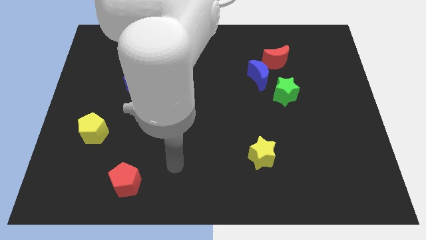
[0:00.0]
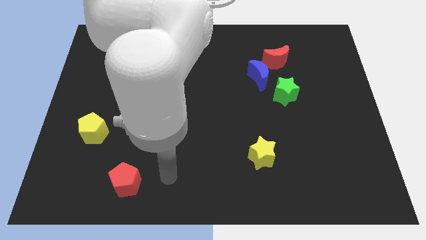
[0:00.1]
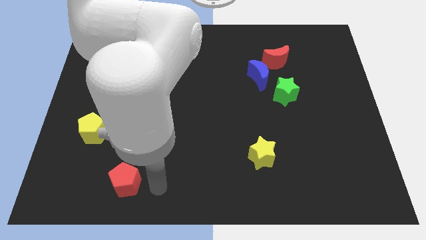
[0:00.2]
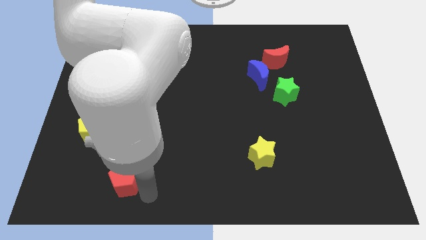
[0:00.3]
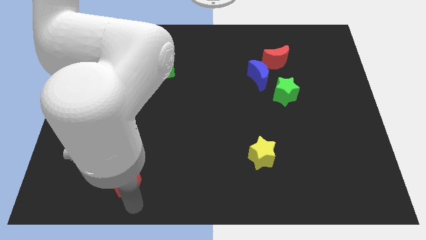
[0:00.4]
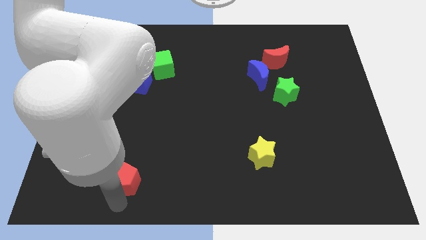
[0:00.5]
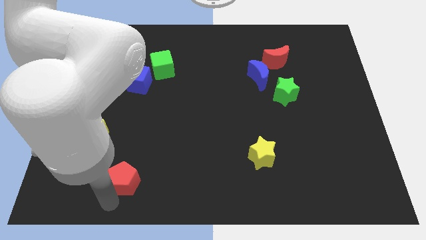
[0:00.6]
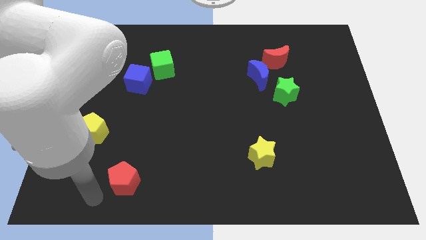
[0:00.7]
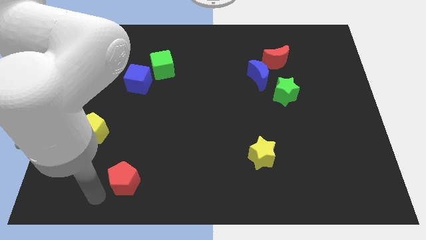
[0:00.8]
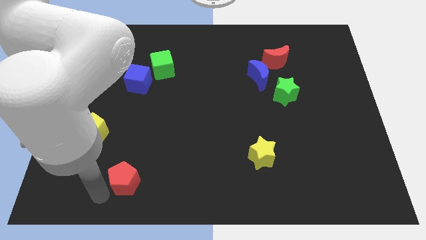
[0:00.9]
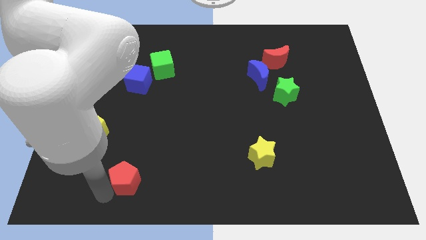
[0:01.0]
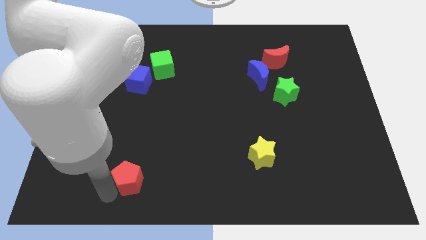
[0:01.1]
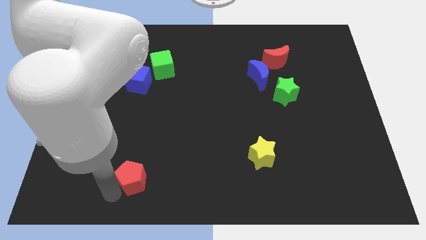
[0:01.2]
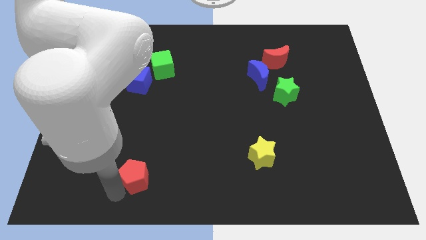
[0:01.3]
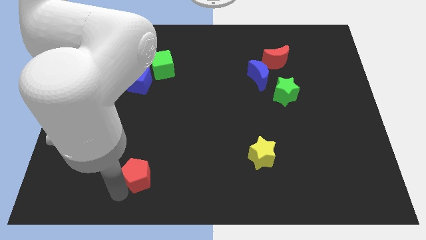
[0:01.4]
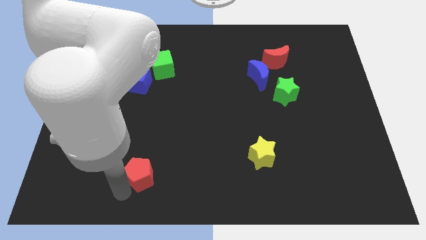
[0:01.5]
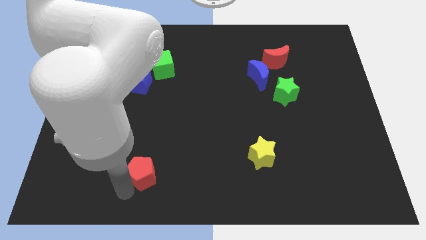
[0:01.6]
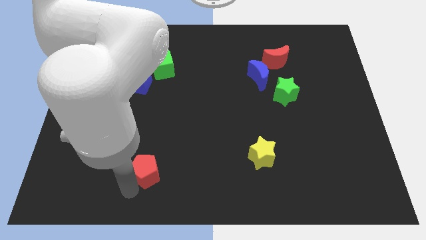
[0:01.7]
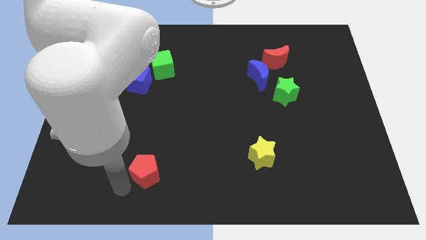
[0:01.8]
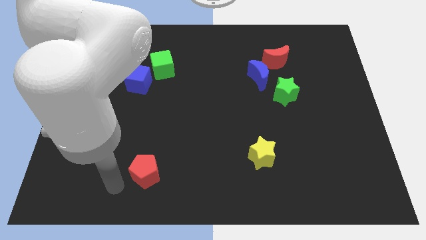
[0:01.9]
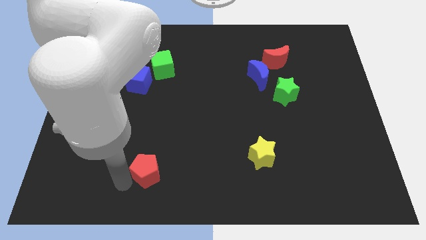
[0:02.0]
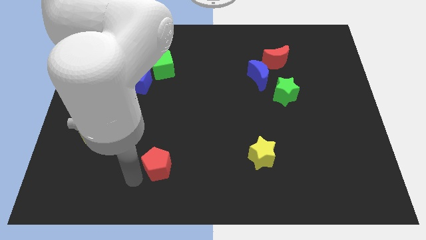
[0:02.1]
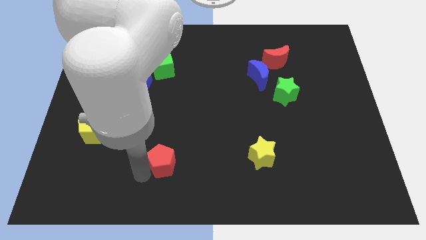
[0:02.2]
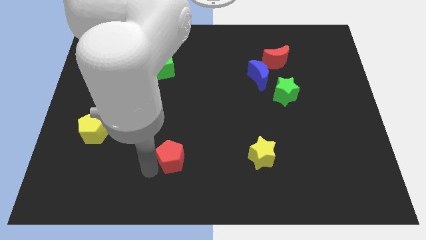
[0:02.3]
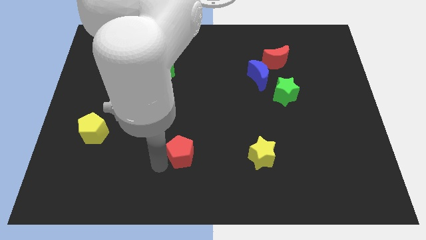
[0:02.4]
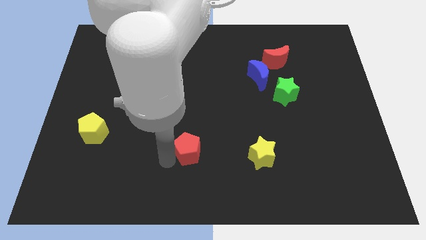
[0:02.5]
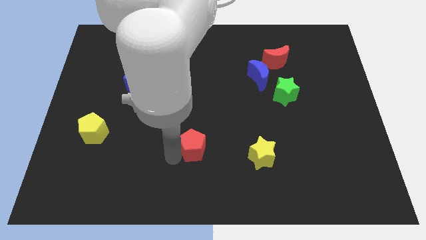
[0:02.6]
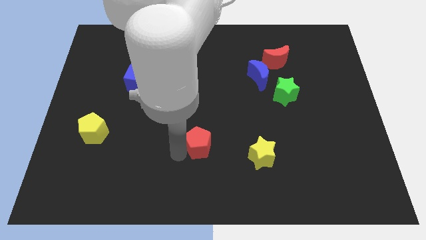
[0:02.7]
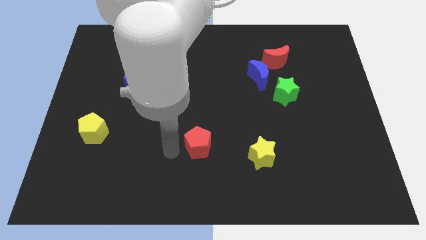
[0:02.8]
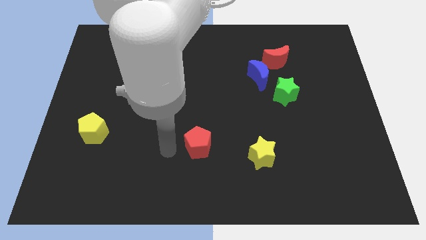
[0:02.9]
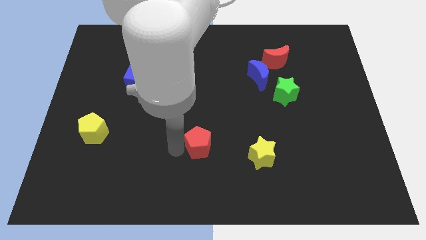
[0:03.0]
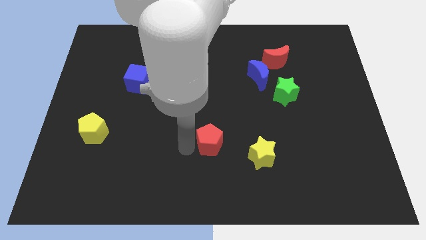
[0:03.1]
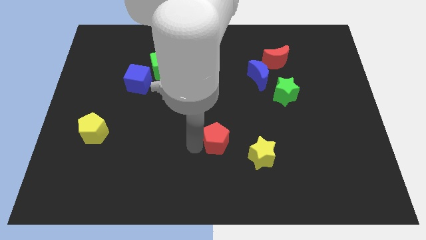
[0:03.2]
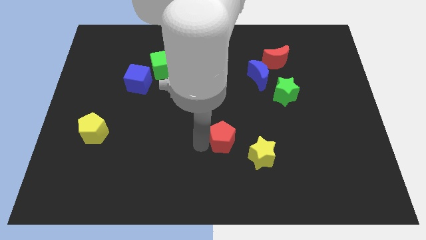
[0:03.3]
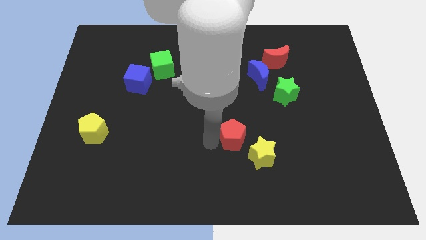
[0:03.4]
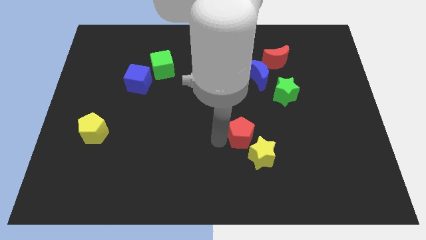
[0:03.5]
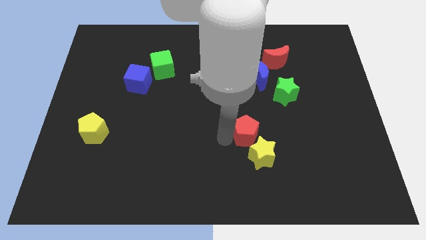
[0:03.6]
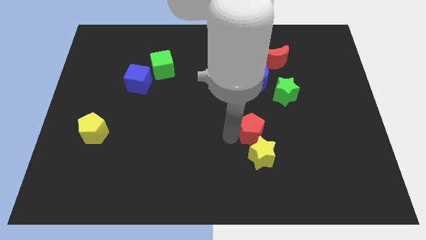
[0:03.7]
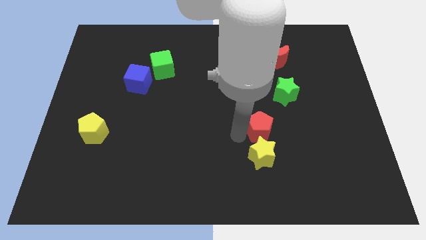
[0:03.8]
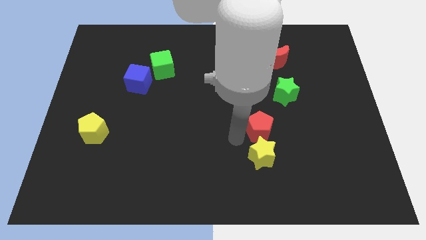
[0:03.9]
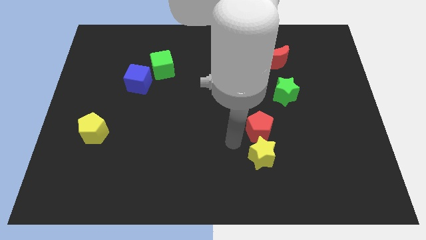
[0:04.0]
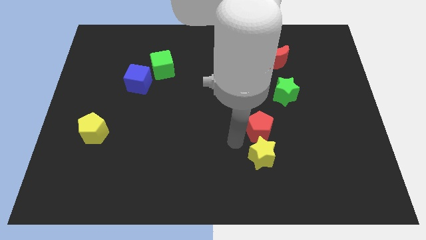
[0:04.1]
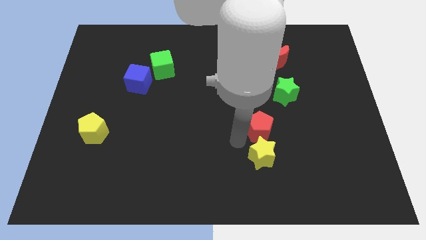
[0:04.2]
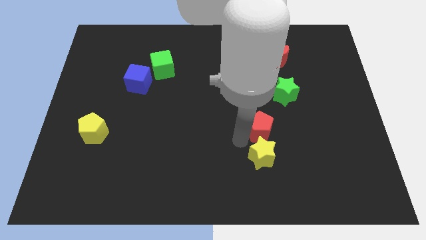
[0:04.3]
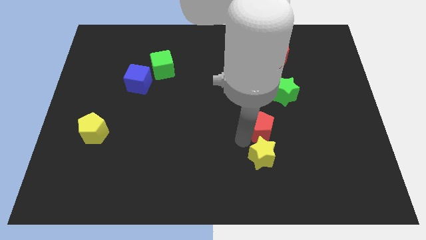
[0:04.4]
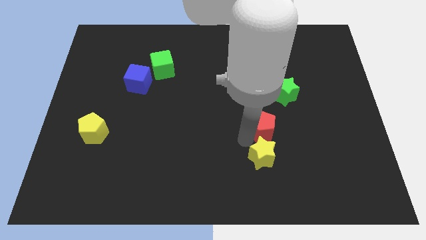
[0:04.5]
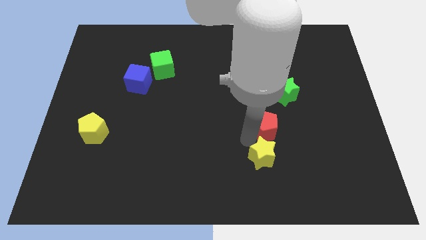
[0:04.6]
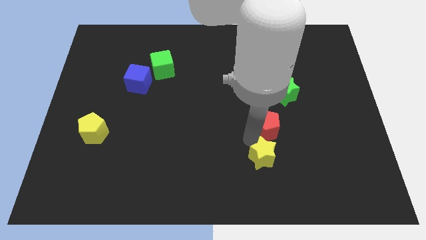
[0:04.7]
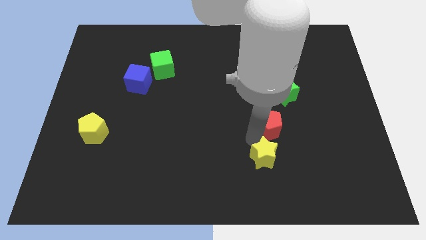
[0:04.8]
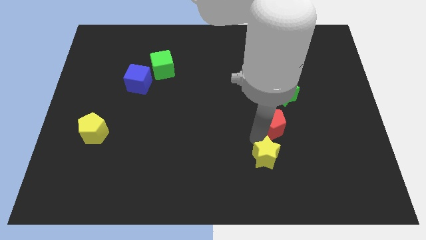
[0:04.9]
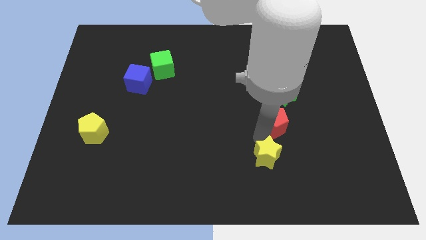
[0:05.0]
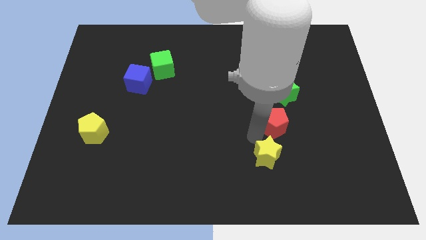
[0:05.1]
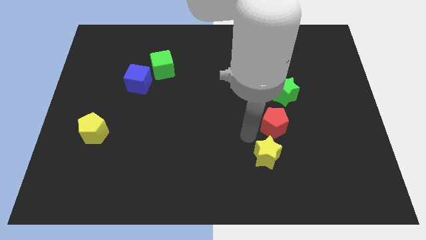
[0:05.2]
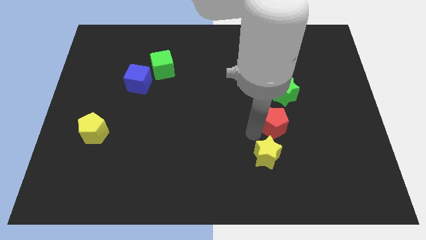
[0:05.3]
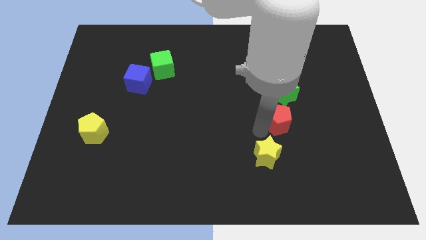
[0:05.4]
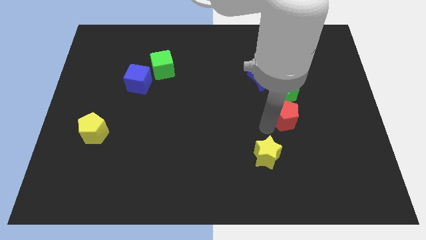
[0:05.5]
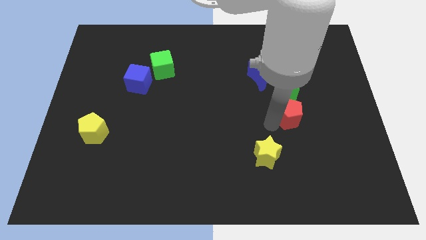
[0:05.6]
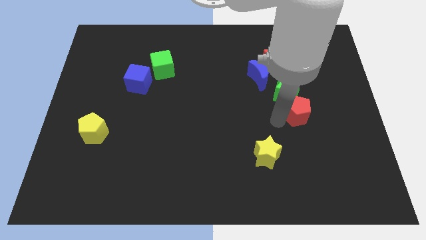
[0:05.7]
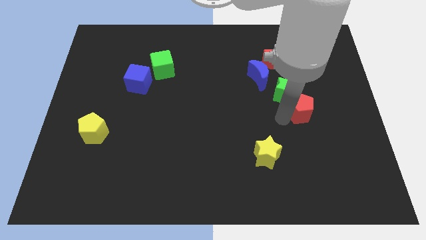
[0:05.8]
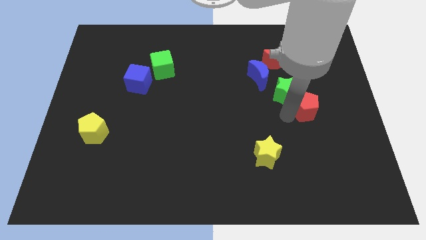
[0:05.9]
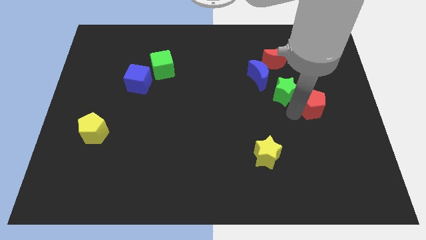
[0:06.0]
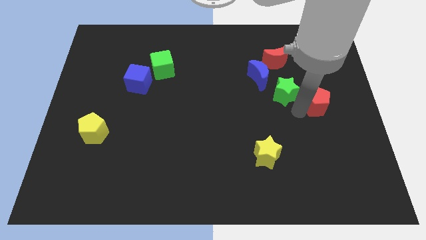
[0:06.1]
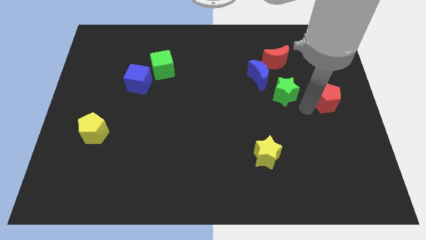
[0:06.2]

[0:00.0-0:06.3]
push the red pentagon to the right side
